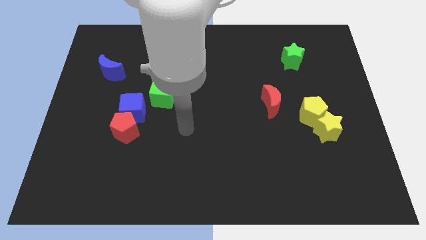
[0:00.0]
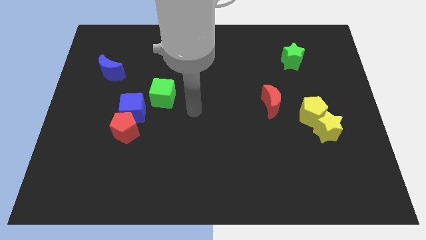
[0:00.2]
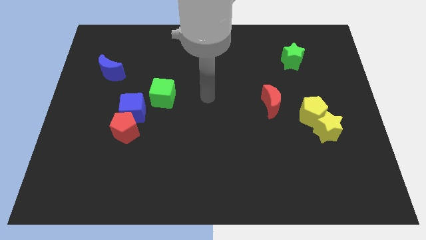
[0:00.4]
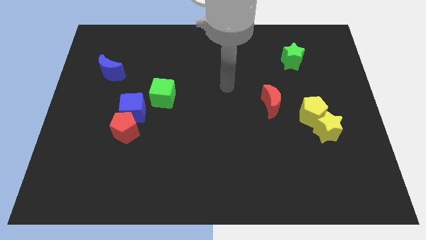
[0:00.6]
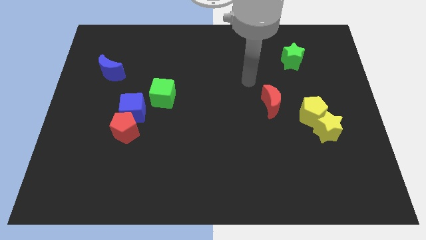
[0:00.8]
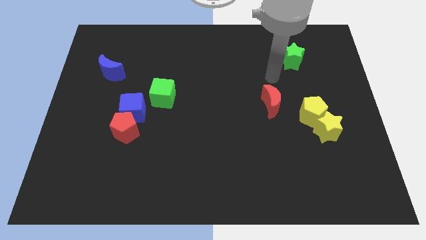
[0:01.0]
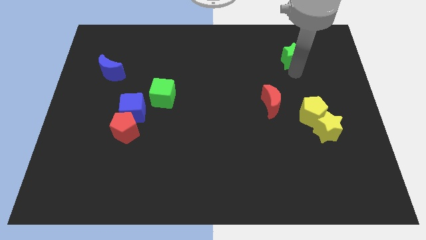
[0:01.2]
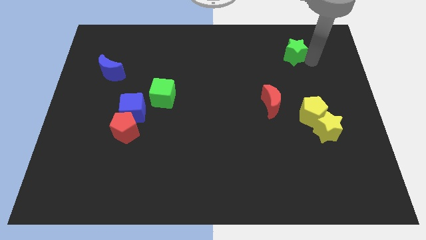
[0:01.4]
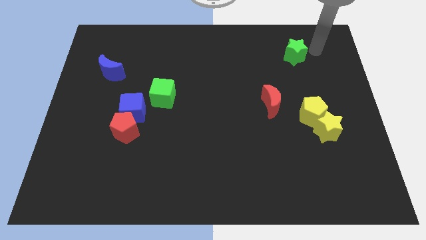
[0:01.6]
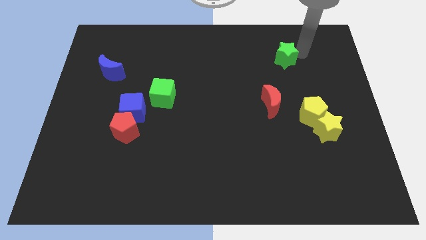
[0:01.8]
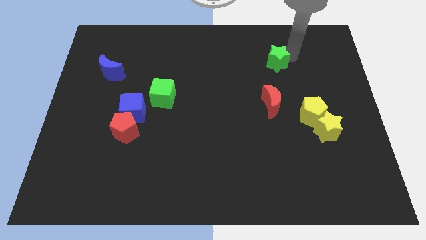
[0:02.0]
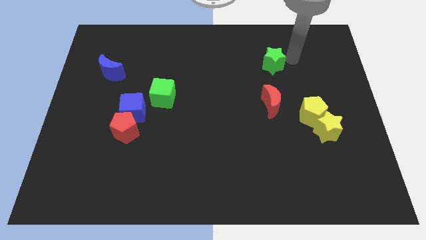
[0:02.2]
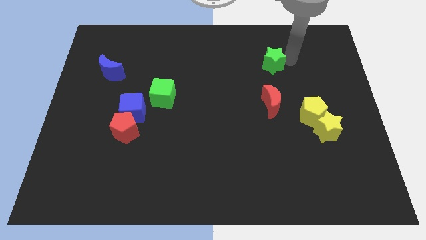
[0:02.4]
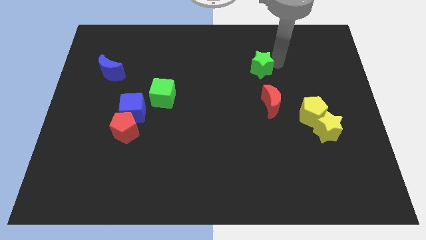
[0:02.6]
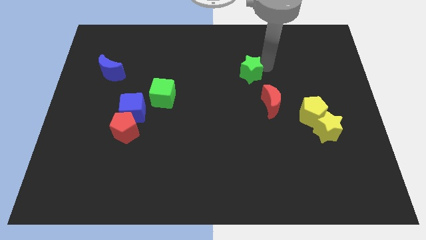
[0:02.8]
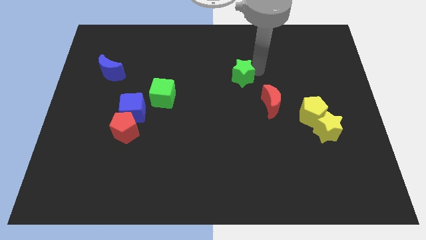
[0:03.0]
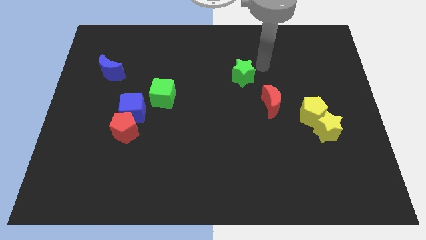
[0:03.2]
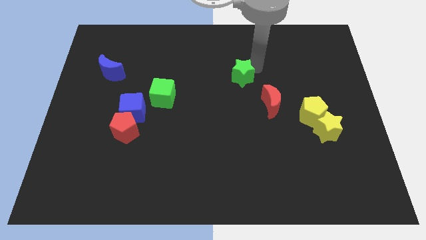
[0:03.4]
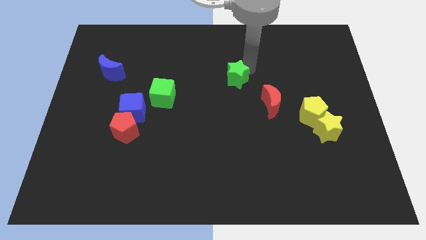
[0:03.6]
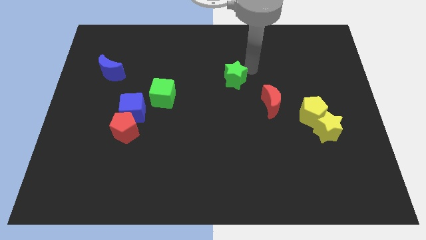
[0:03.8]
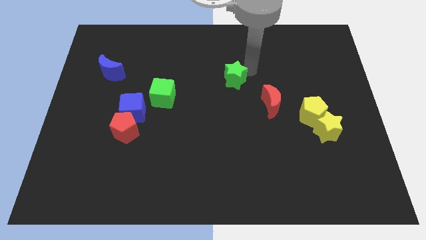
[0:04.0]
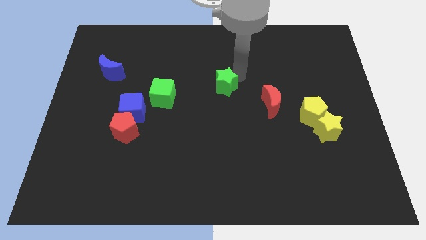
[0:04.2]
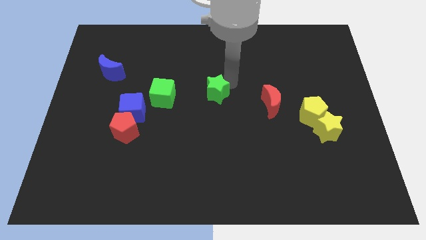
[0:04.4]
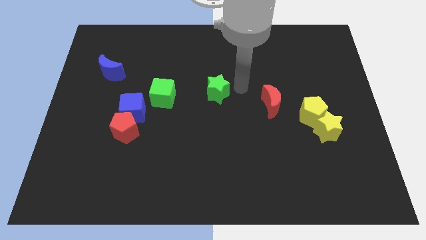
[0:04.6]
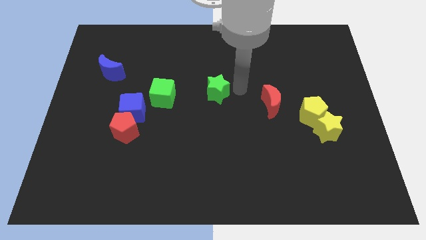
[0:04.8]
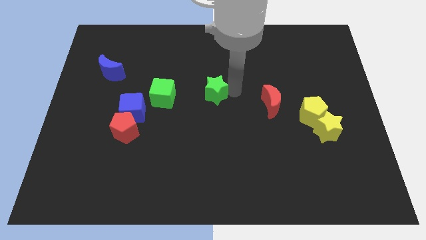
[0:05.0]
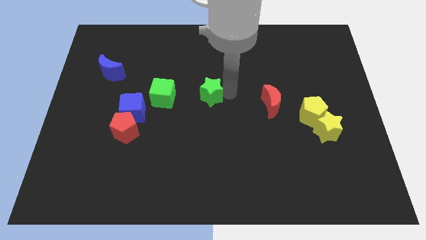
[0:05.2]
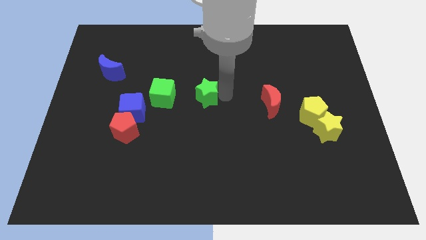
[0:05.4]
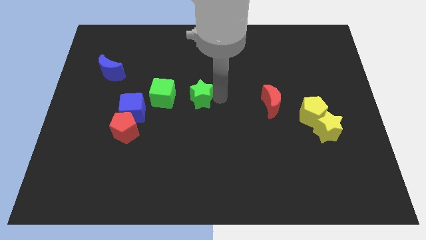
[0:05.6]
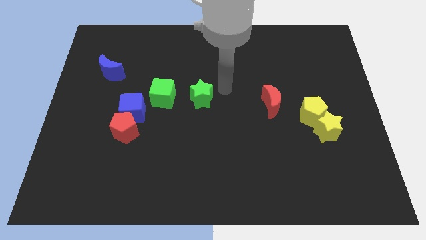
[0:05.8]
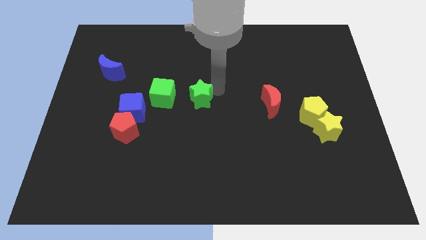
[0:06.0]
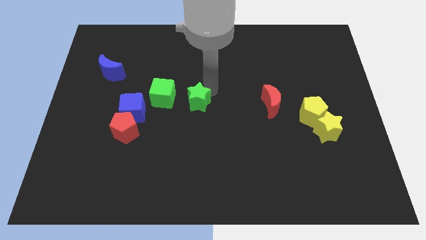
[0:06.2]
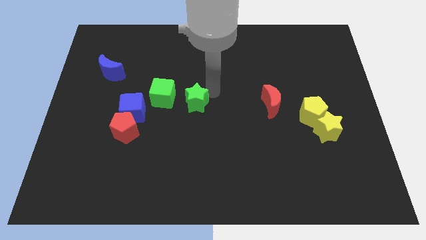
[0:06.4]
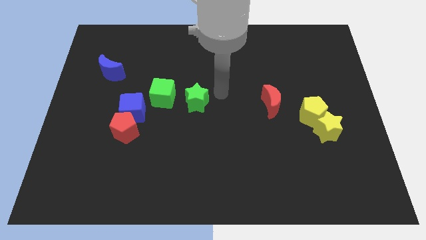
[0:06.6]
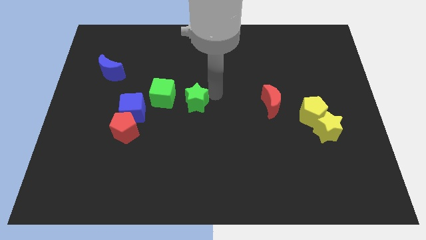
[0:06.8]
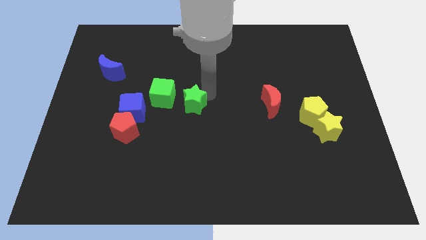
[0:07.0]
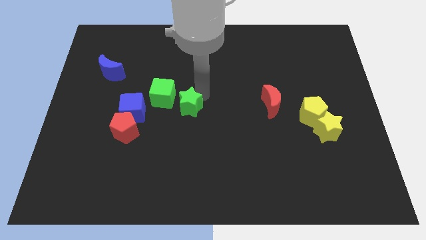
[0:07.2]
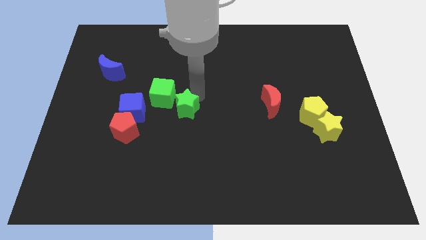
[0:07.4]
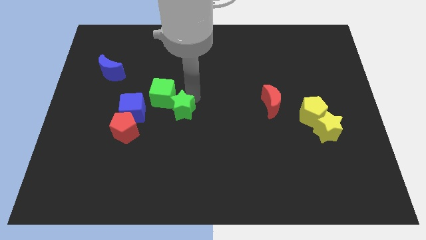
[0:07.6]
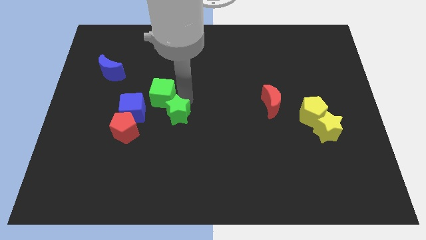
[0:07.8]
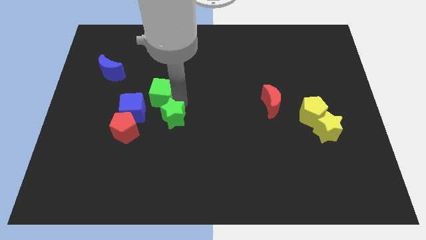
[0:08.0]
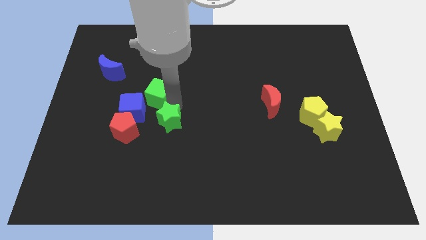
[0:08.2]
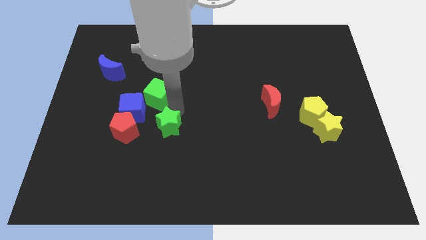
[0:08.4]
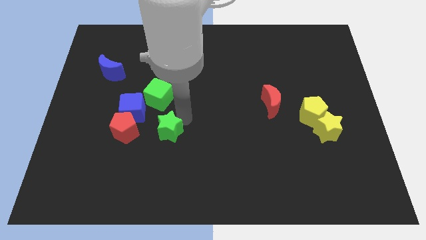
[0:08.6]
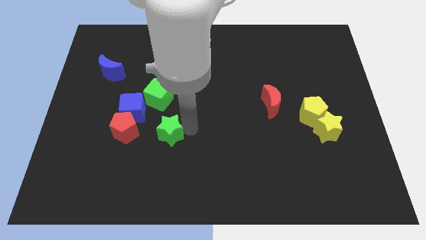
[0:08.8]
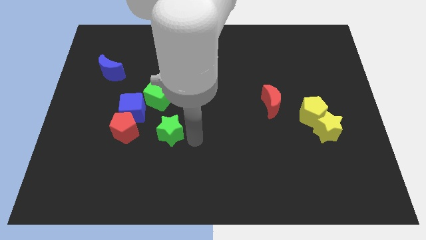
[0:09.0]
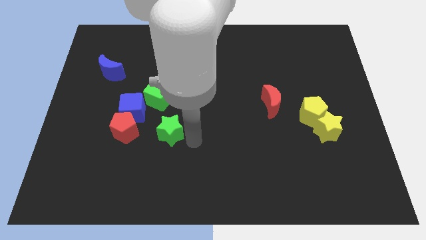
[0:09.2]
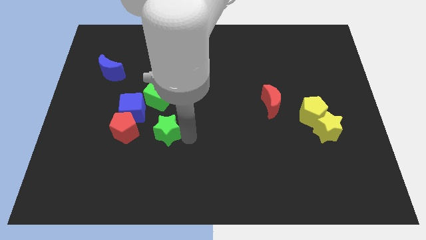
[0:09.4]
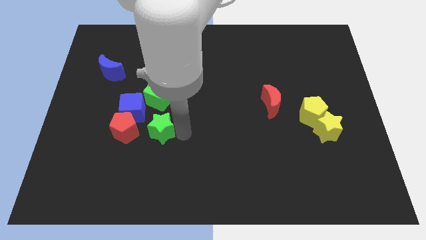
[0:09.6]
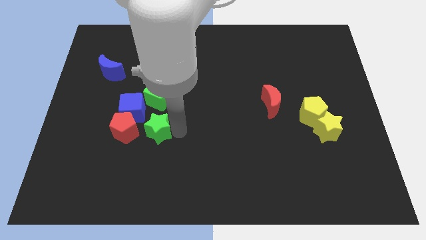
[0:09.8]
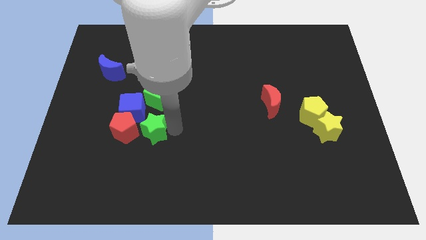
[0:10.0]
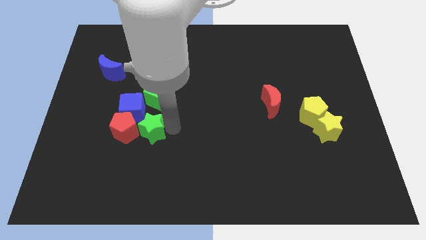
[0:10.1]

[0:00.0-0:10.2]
push the green star close to the red pentagon

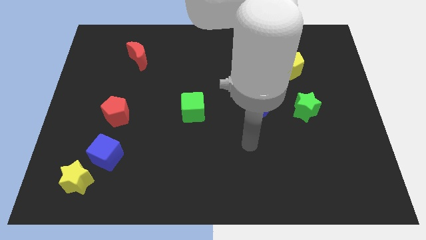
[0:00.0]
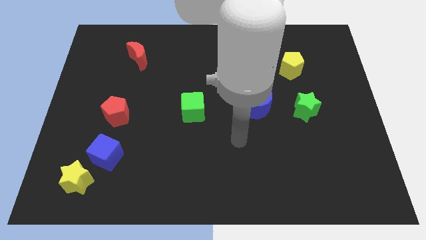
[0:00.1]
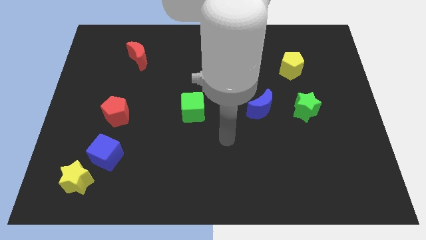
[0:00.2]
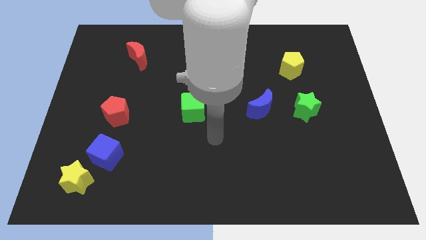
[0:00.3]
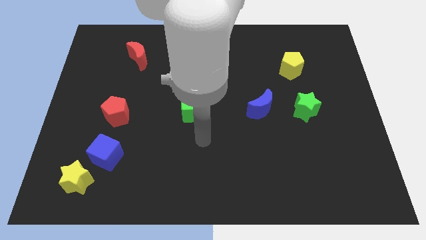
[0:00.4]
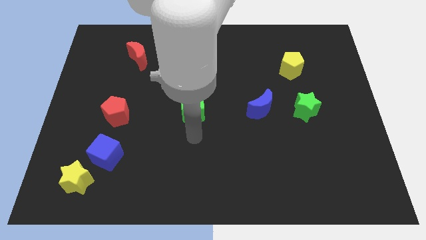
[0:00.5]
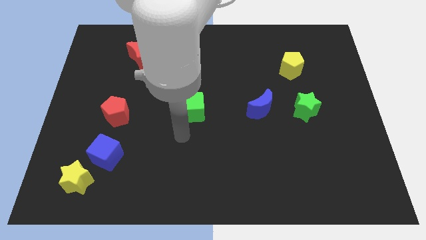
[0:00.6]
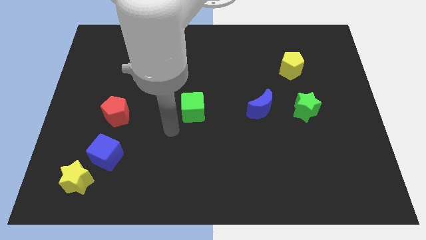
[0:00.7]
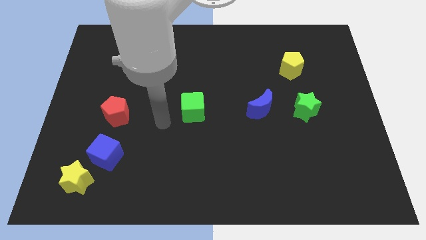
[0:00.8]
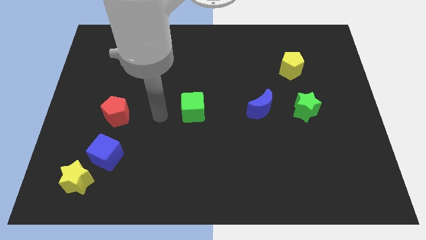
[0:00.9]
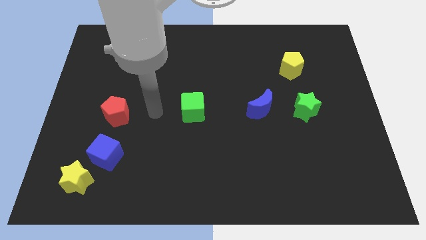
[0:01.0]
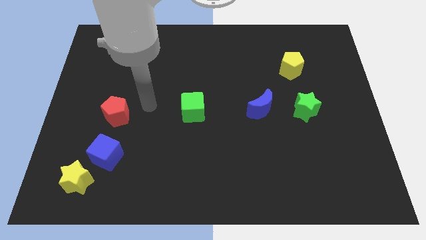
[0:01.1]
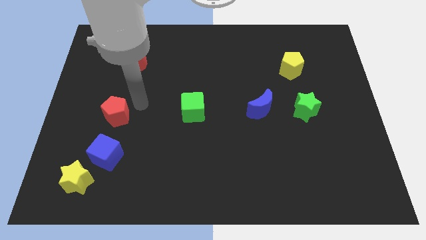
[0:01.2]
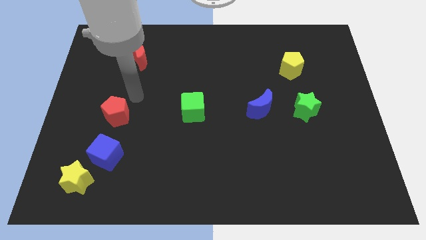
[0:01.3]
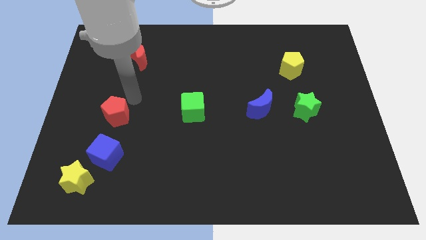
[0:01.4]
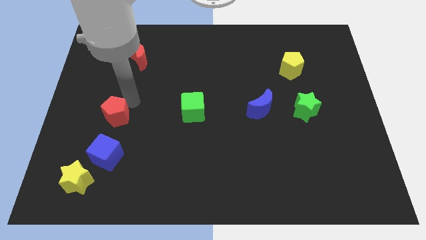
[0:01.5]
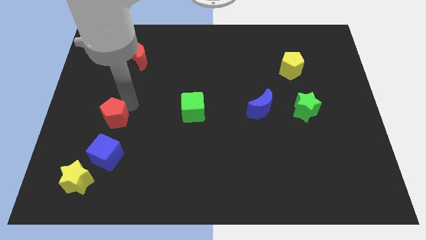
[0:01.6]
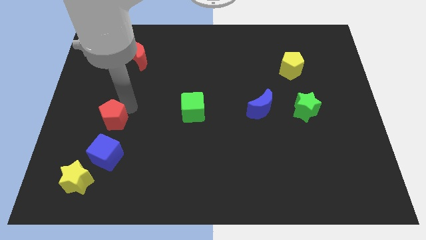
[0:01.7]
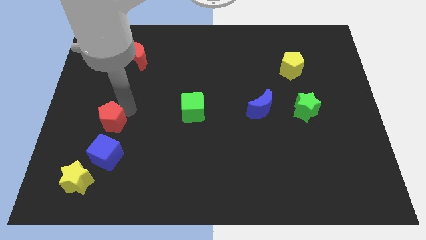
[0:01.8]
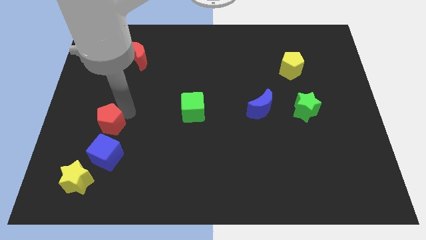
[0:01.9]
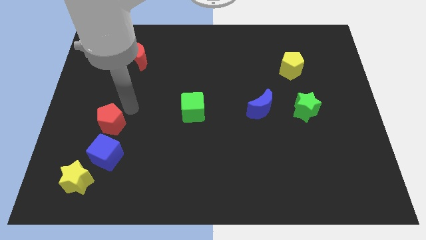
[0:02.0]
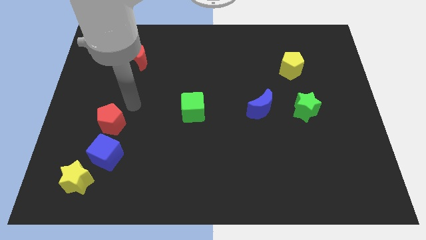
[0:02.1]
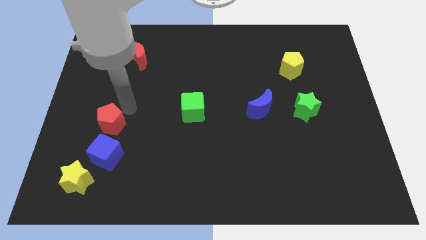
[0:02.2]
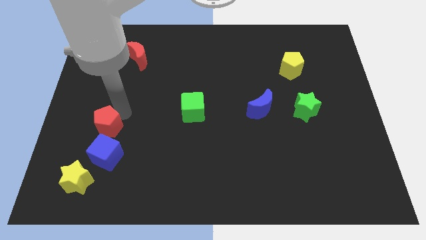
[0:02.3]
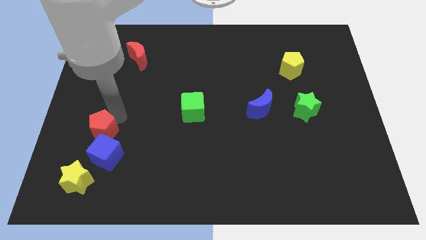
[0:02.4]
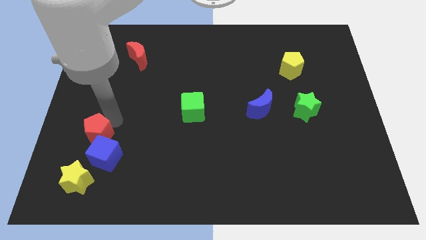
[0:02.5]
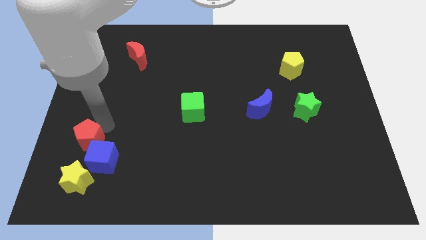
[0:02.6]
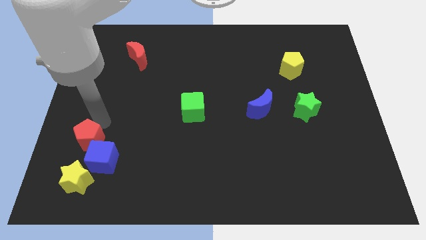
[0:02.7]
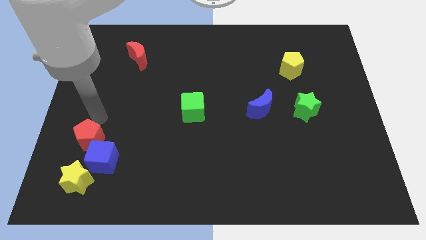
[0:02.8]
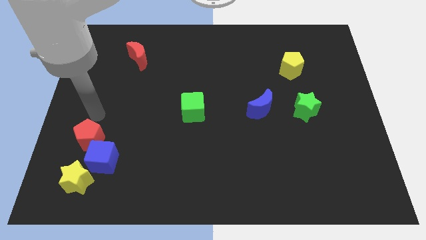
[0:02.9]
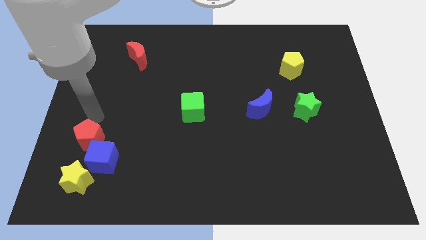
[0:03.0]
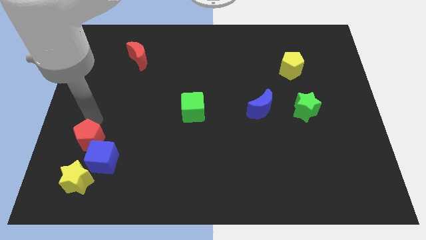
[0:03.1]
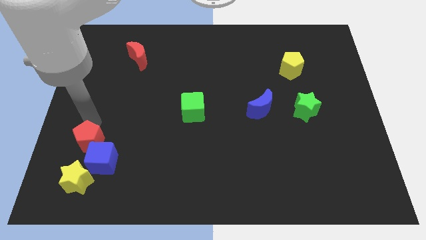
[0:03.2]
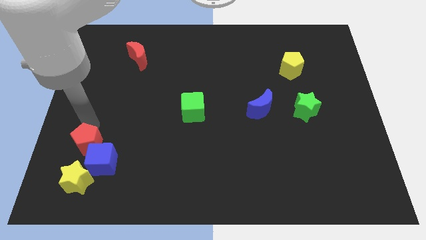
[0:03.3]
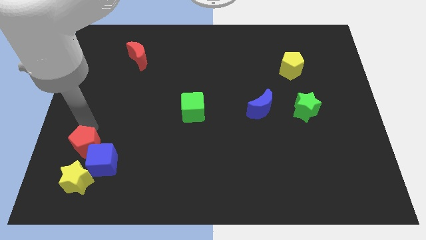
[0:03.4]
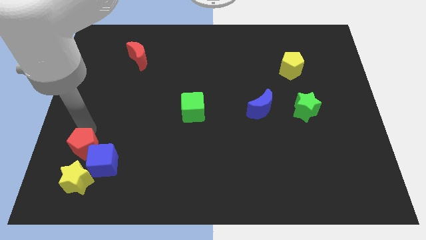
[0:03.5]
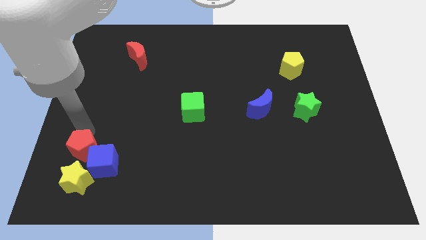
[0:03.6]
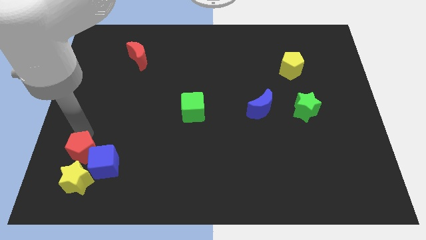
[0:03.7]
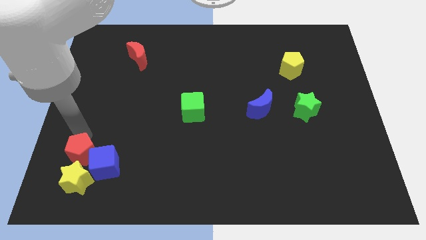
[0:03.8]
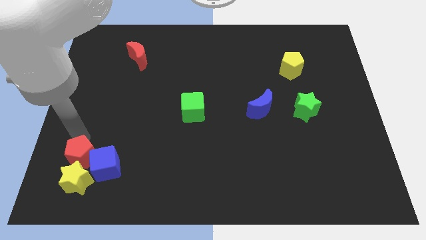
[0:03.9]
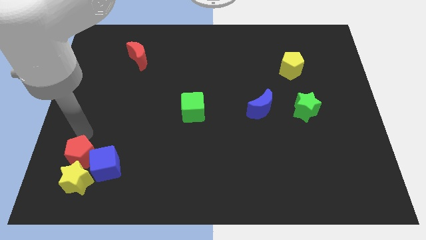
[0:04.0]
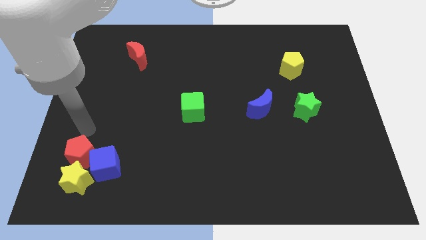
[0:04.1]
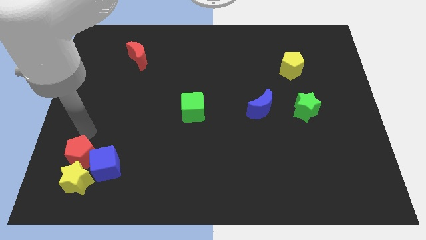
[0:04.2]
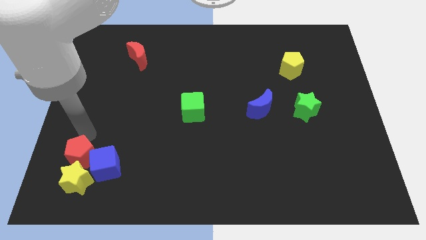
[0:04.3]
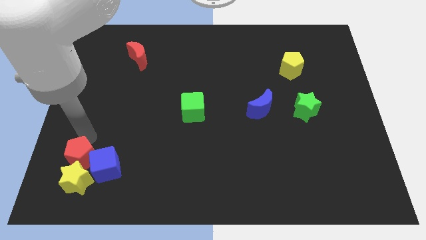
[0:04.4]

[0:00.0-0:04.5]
slide the red pentagon close to the yellow star
